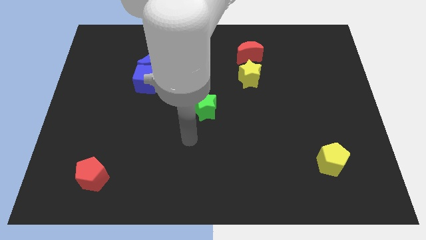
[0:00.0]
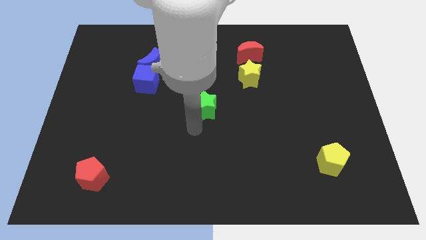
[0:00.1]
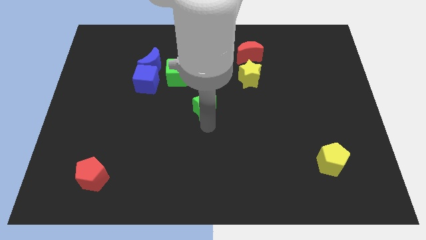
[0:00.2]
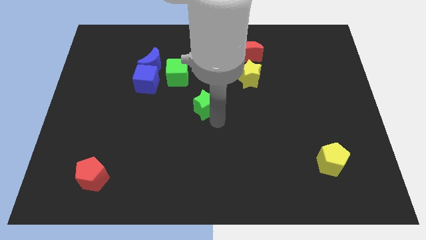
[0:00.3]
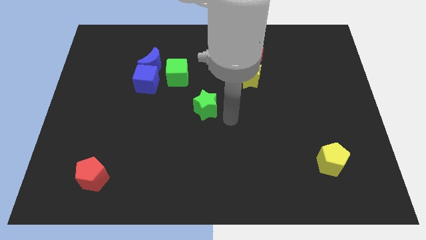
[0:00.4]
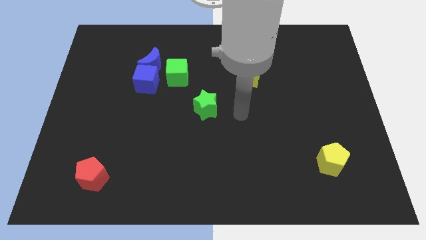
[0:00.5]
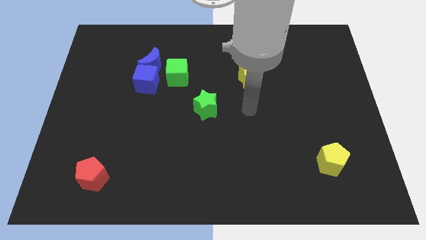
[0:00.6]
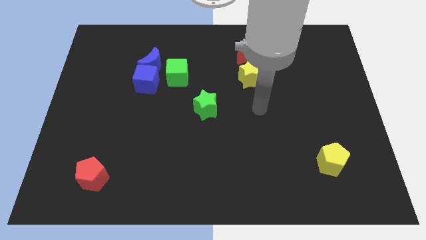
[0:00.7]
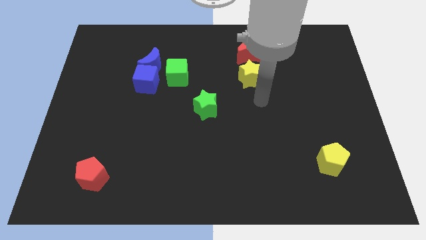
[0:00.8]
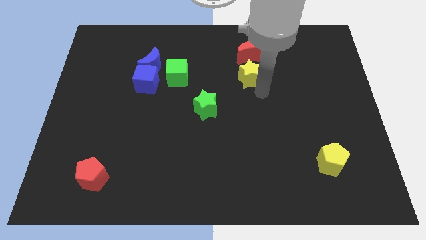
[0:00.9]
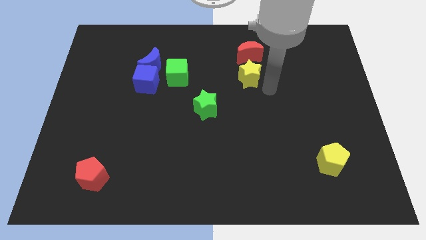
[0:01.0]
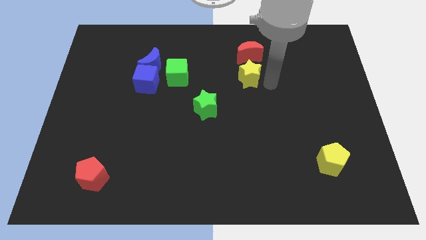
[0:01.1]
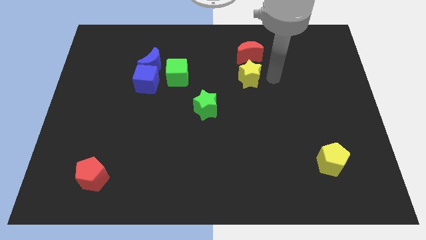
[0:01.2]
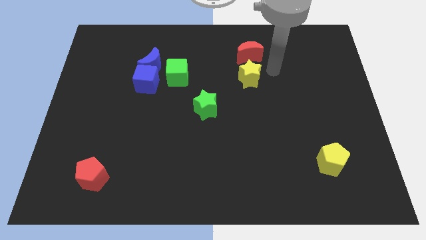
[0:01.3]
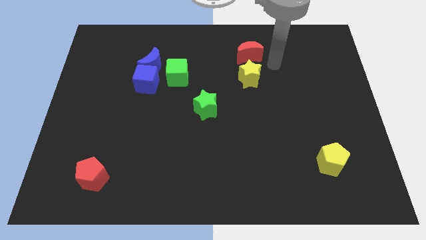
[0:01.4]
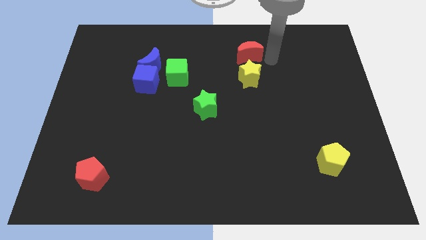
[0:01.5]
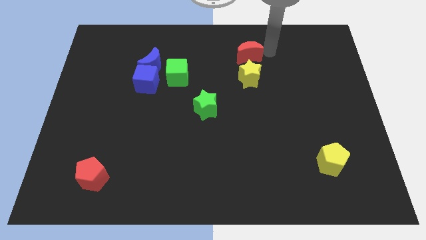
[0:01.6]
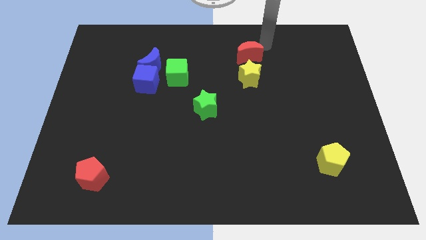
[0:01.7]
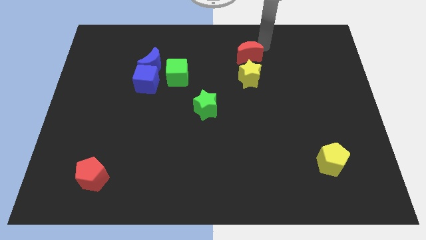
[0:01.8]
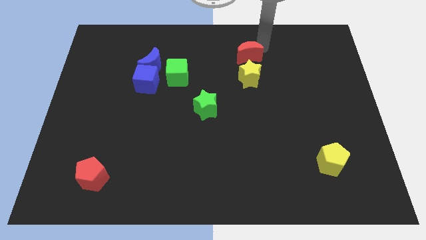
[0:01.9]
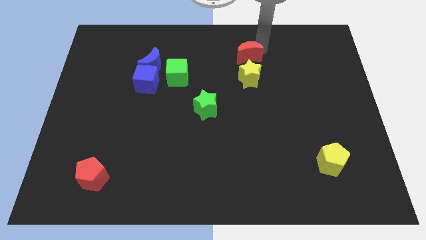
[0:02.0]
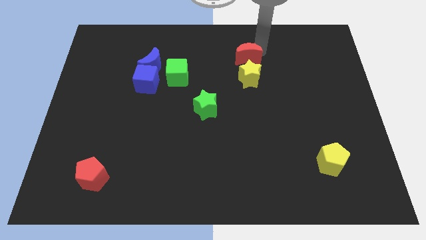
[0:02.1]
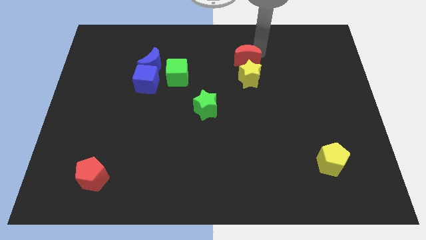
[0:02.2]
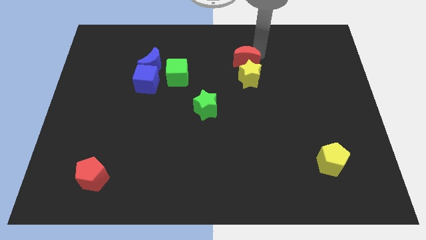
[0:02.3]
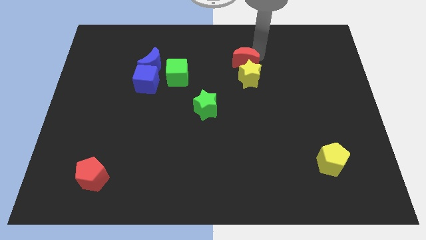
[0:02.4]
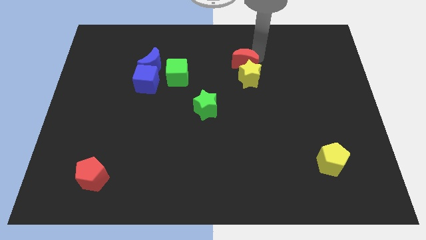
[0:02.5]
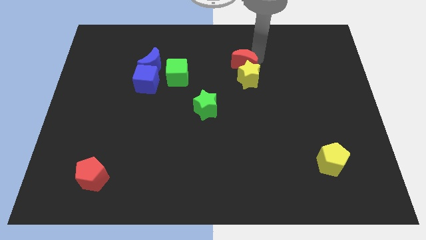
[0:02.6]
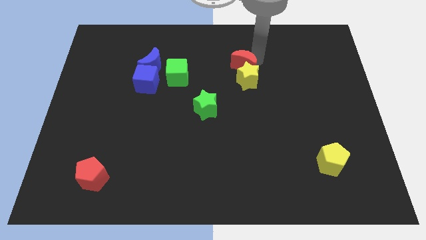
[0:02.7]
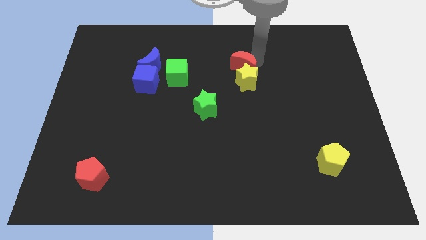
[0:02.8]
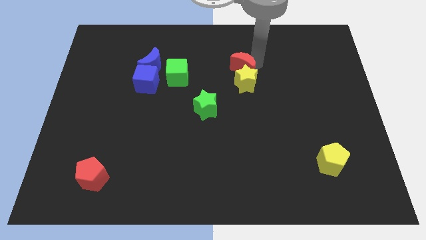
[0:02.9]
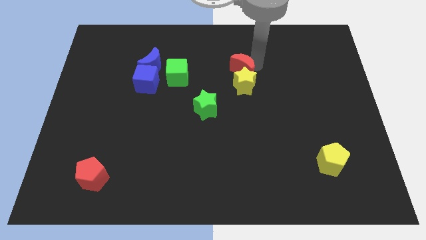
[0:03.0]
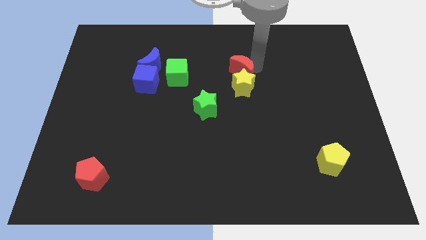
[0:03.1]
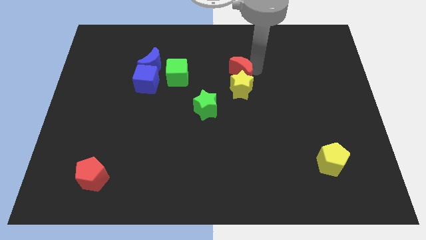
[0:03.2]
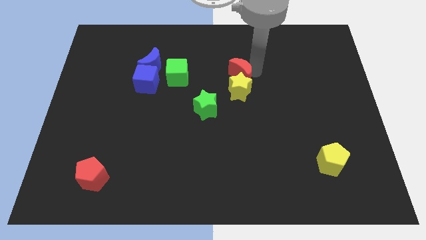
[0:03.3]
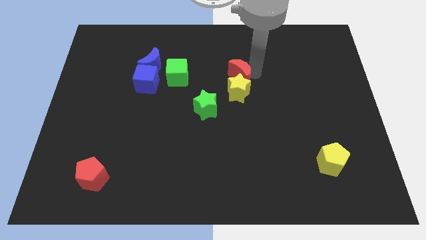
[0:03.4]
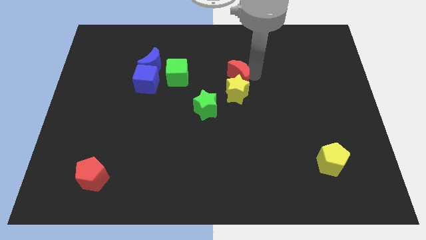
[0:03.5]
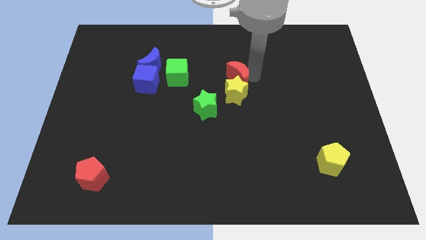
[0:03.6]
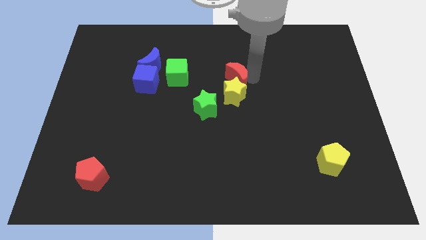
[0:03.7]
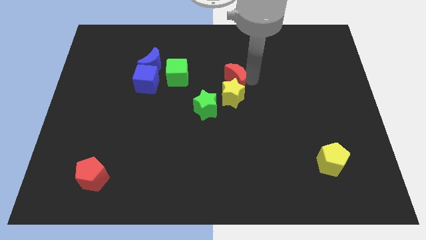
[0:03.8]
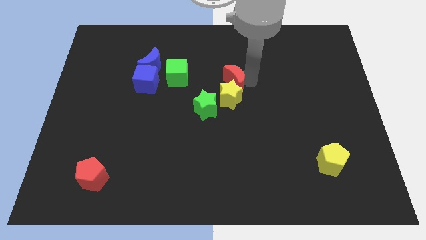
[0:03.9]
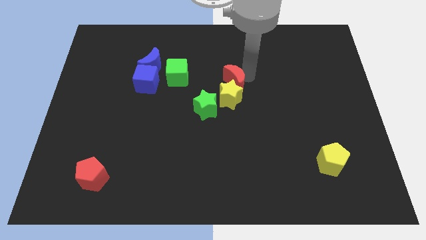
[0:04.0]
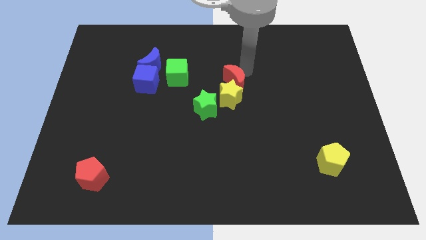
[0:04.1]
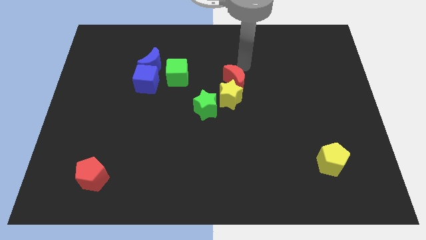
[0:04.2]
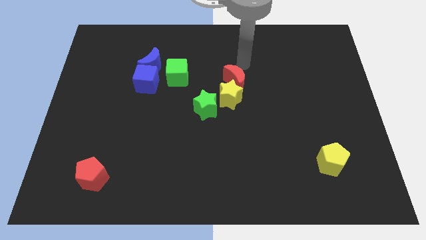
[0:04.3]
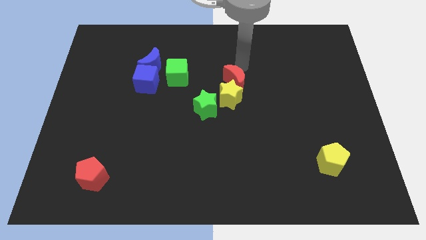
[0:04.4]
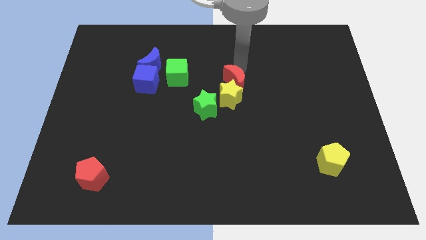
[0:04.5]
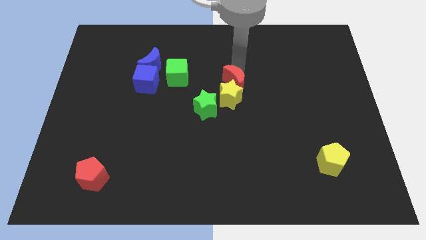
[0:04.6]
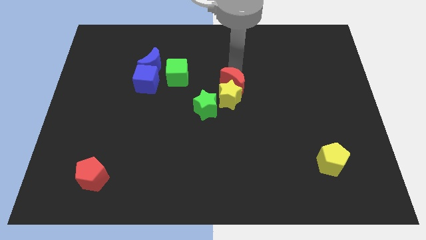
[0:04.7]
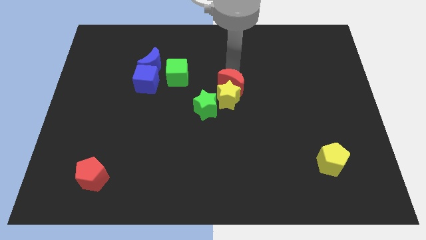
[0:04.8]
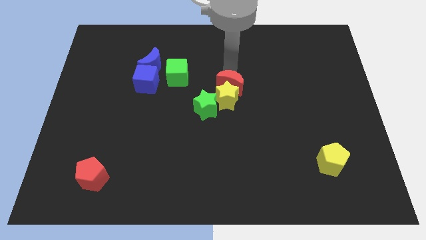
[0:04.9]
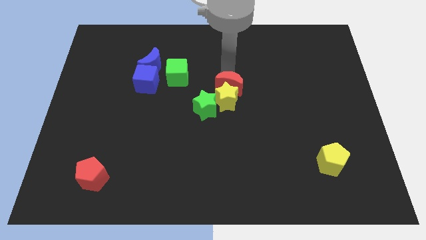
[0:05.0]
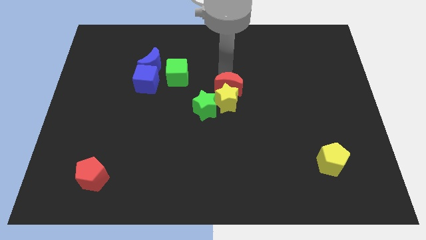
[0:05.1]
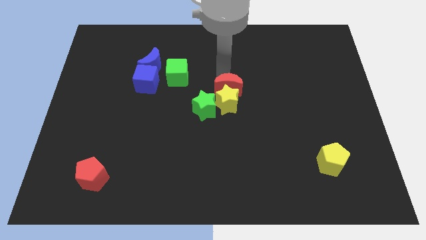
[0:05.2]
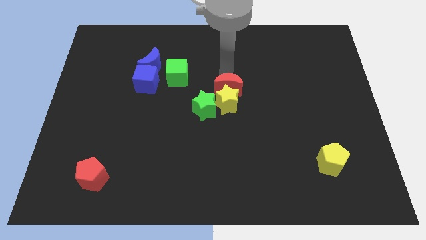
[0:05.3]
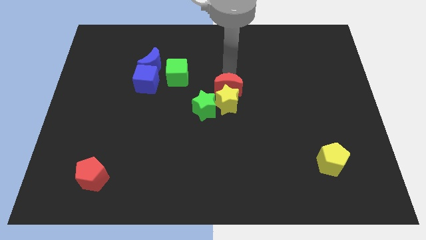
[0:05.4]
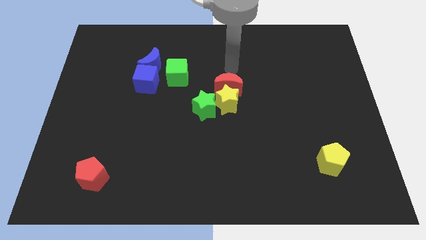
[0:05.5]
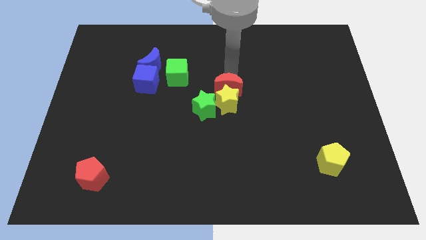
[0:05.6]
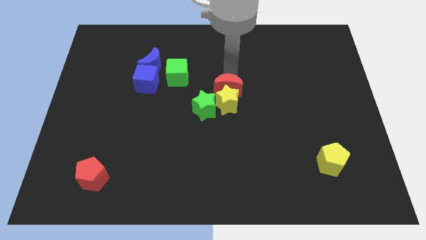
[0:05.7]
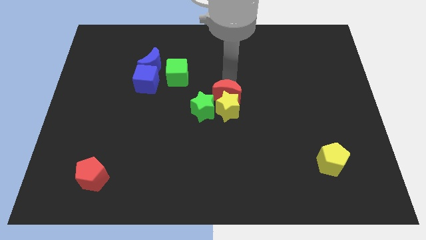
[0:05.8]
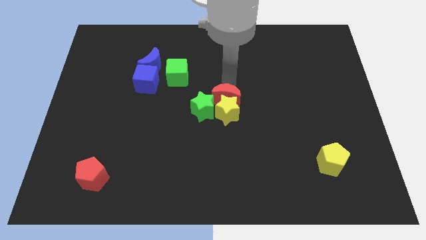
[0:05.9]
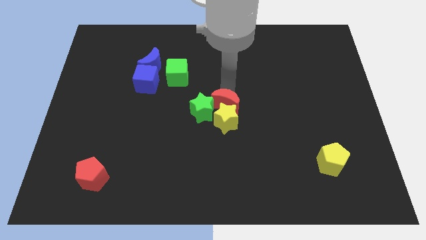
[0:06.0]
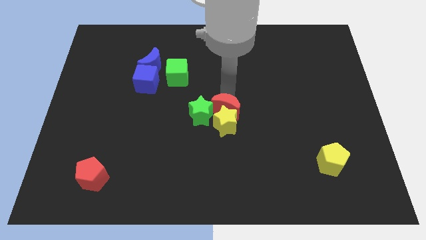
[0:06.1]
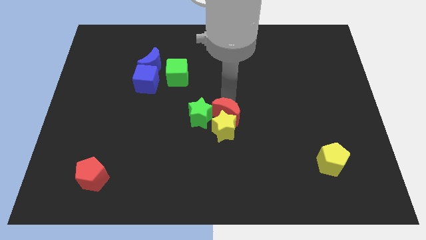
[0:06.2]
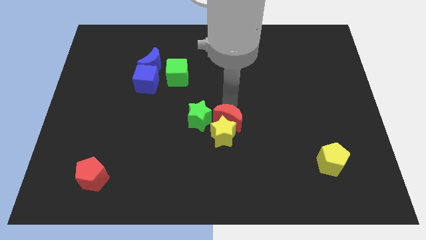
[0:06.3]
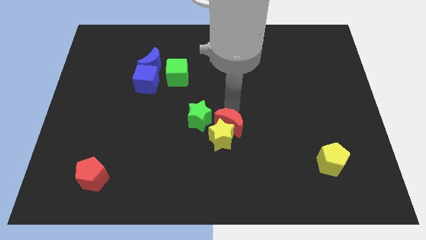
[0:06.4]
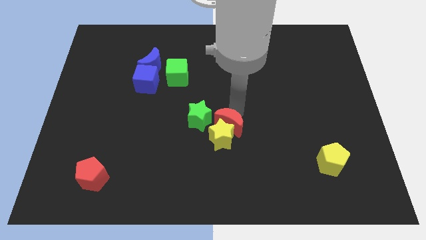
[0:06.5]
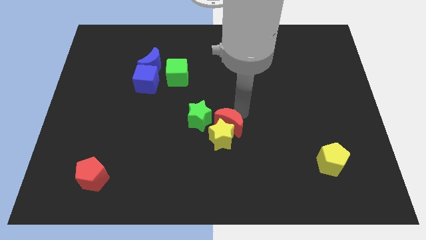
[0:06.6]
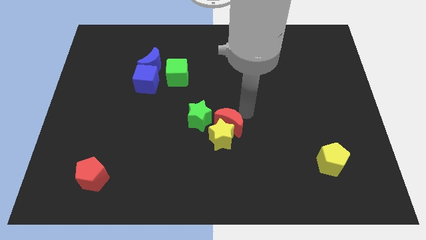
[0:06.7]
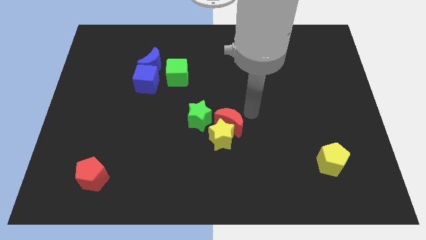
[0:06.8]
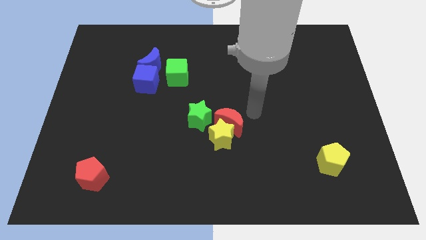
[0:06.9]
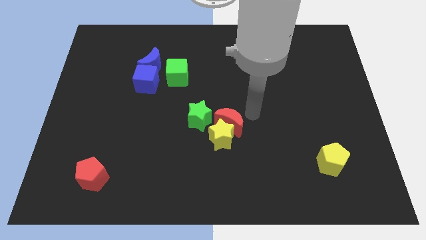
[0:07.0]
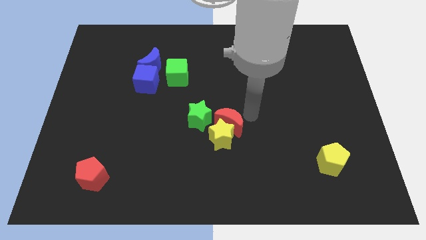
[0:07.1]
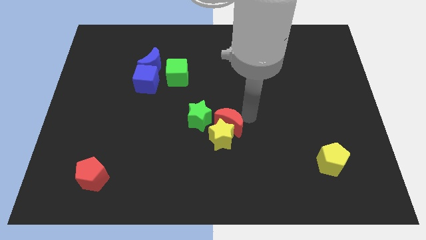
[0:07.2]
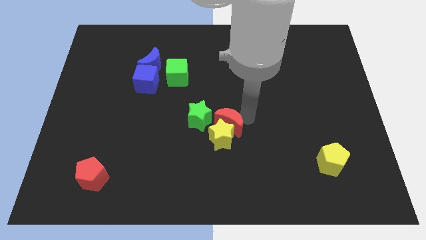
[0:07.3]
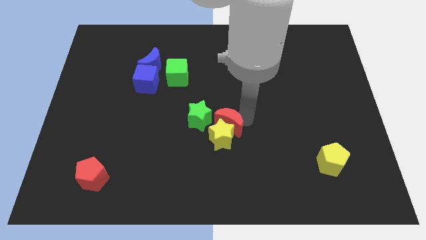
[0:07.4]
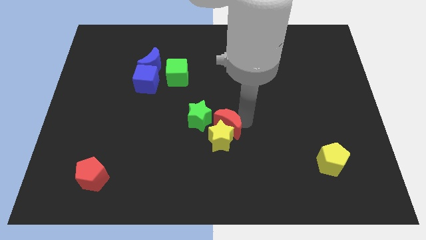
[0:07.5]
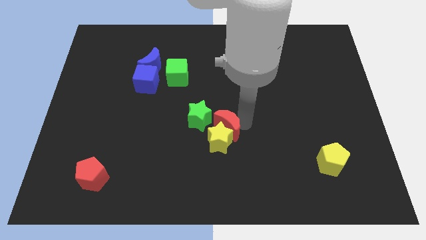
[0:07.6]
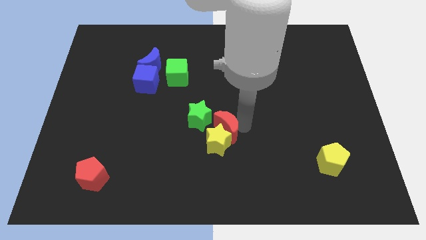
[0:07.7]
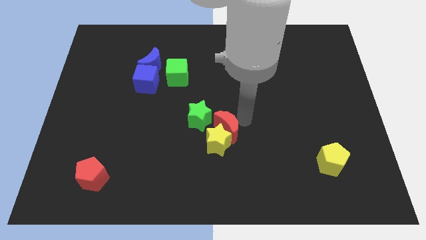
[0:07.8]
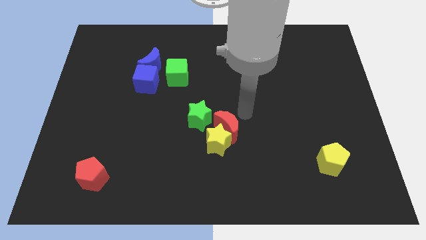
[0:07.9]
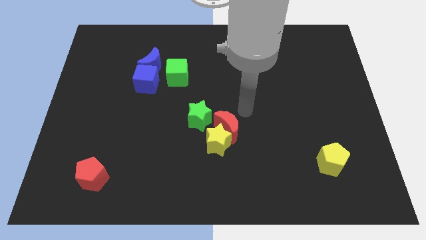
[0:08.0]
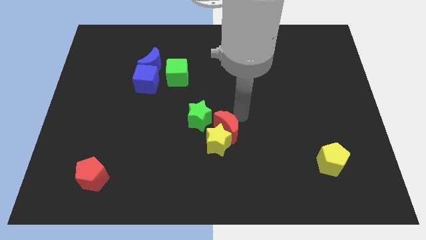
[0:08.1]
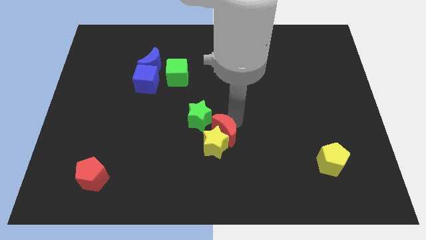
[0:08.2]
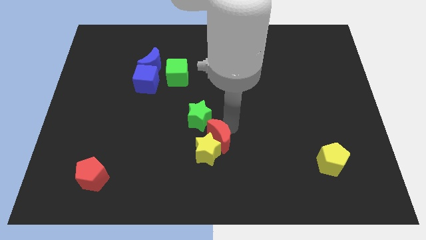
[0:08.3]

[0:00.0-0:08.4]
push the red moon to the bottom side of the green star
